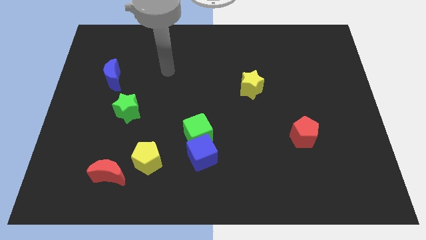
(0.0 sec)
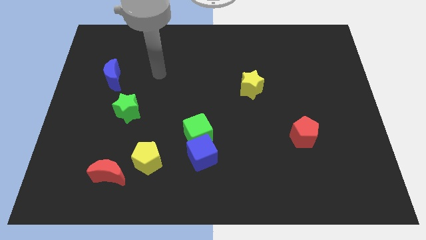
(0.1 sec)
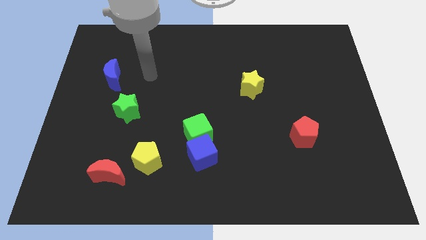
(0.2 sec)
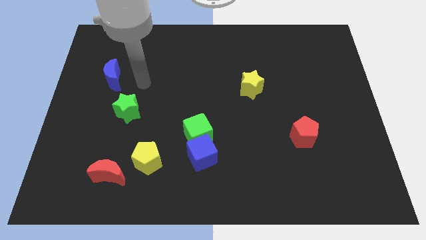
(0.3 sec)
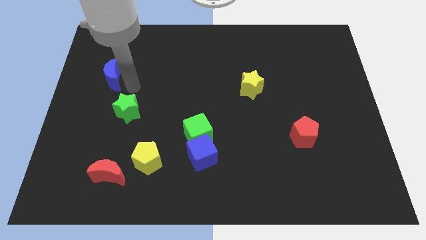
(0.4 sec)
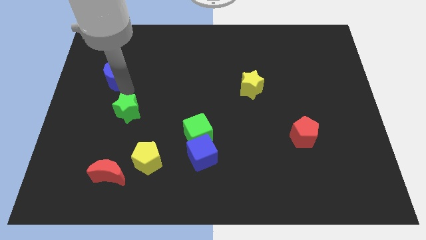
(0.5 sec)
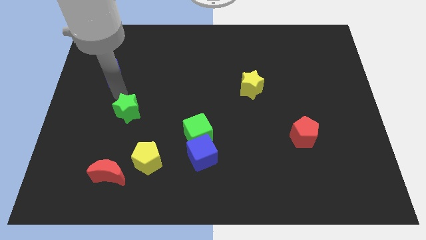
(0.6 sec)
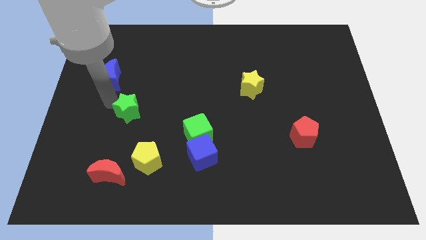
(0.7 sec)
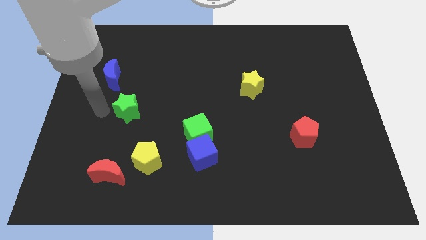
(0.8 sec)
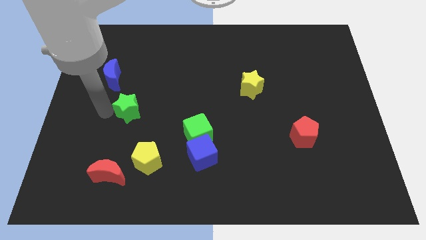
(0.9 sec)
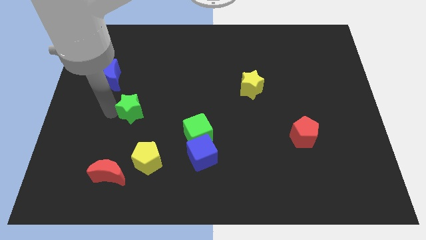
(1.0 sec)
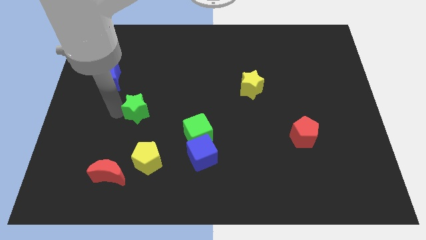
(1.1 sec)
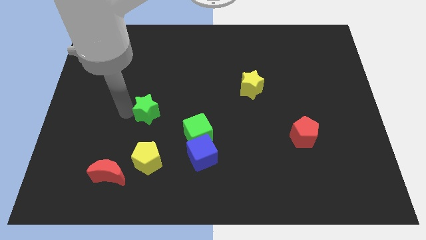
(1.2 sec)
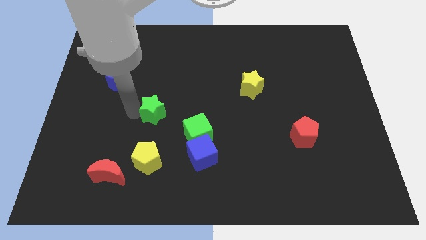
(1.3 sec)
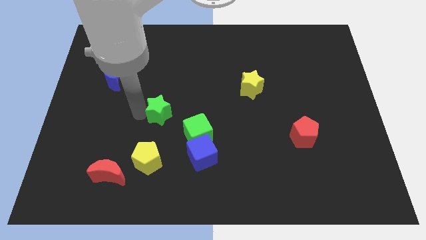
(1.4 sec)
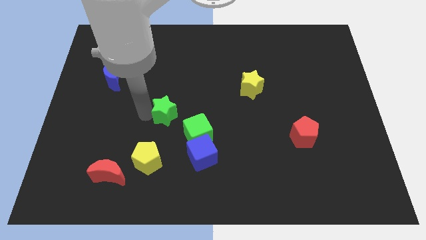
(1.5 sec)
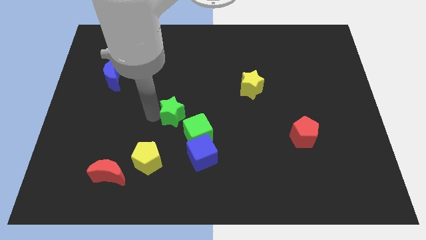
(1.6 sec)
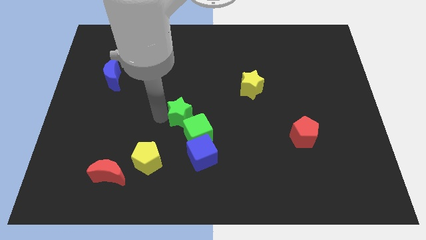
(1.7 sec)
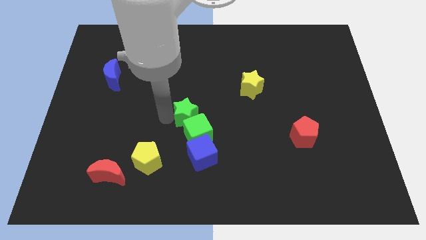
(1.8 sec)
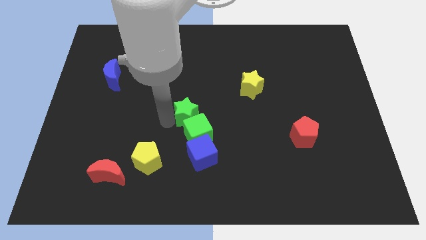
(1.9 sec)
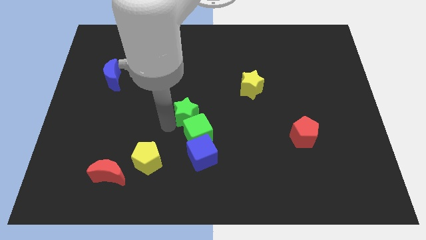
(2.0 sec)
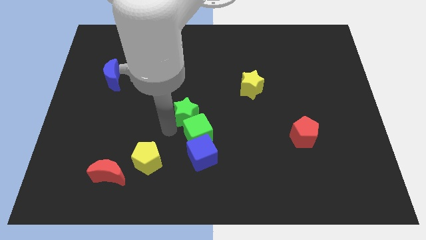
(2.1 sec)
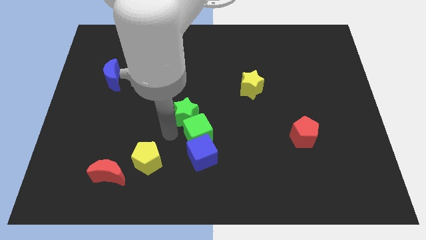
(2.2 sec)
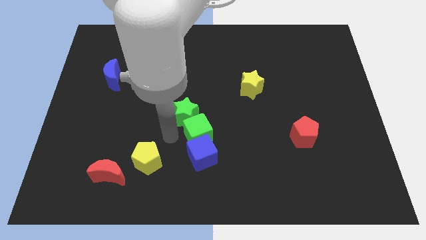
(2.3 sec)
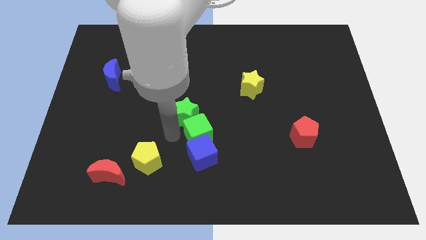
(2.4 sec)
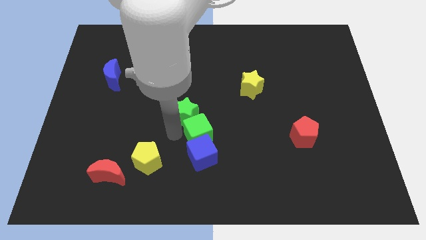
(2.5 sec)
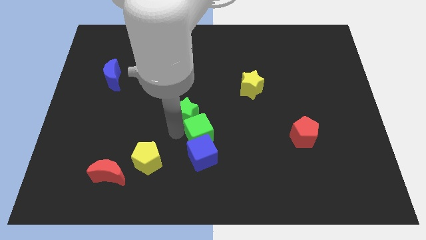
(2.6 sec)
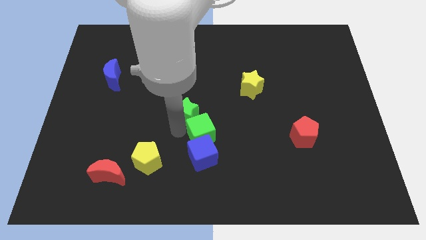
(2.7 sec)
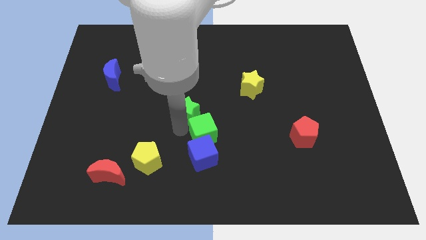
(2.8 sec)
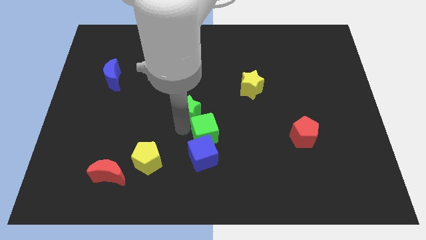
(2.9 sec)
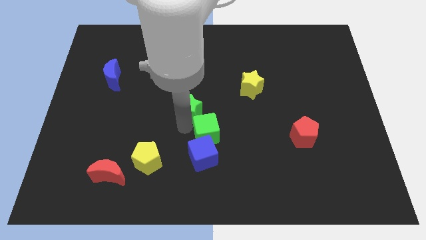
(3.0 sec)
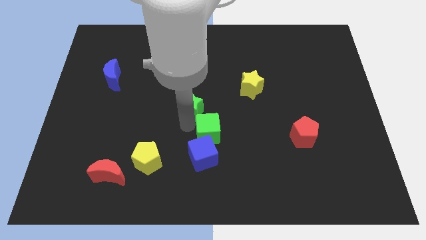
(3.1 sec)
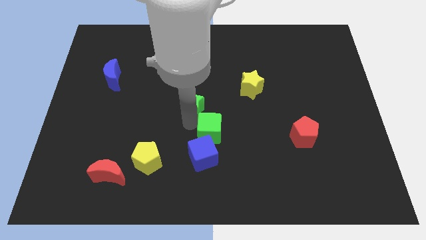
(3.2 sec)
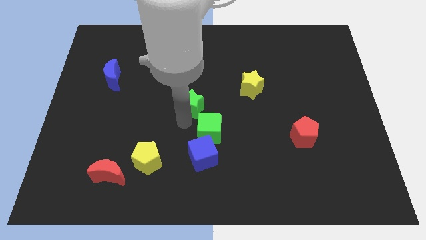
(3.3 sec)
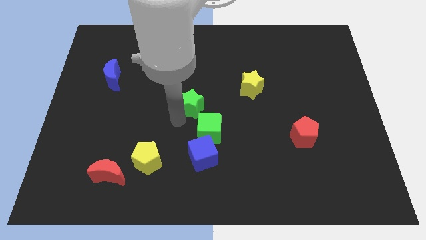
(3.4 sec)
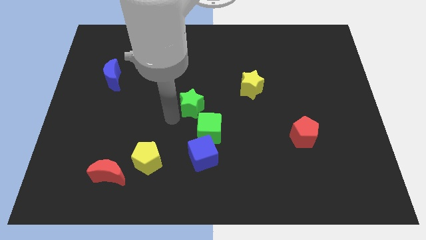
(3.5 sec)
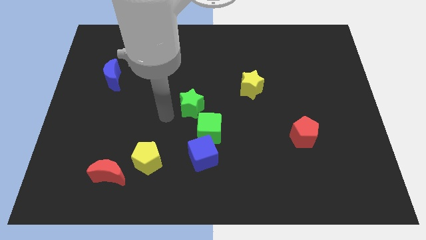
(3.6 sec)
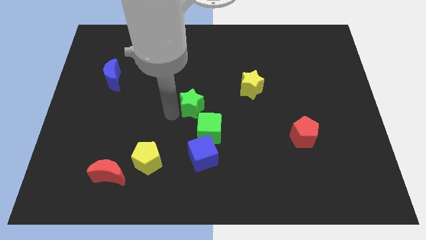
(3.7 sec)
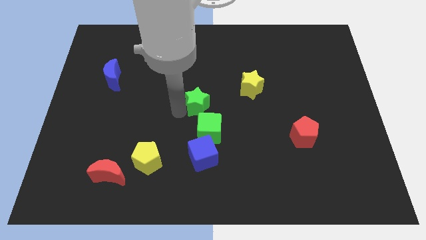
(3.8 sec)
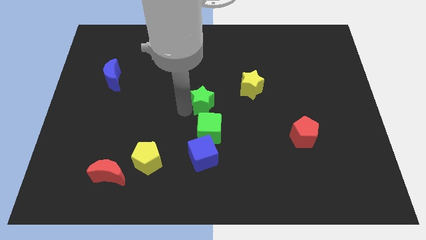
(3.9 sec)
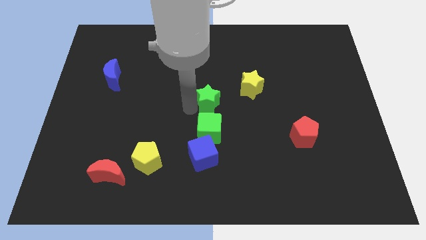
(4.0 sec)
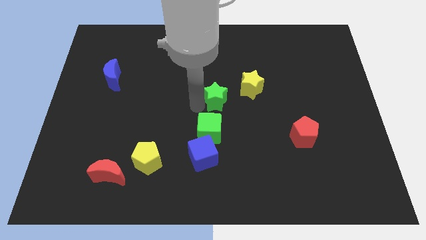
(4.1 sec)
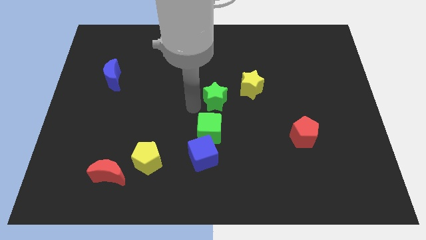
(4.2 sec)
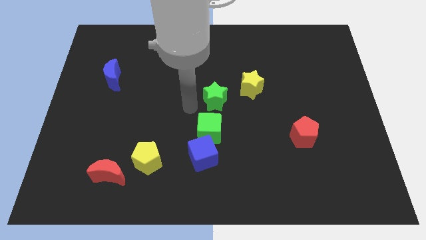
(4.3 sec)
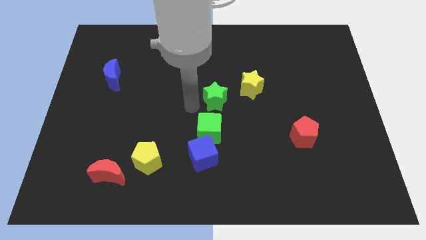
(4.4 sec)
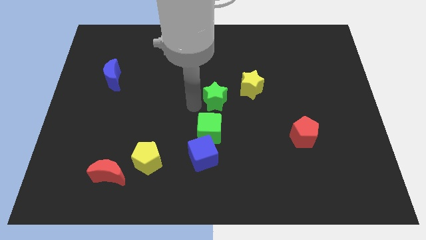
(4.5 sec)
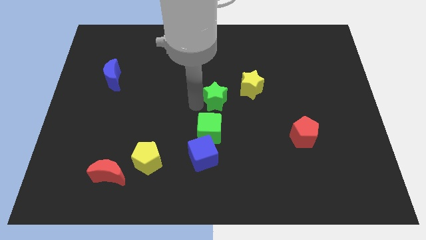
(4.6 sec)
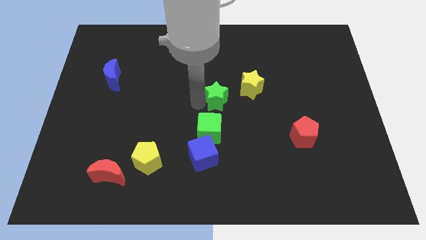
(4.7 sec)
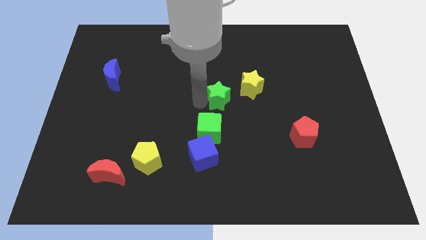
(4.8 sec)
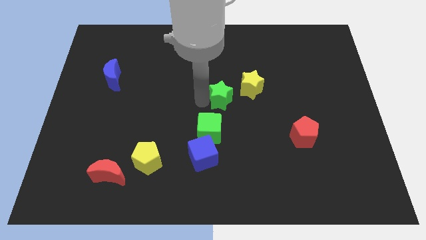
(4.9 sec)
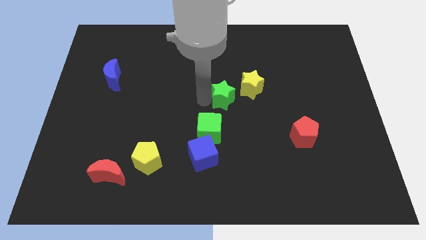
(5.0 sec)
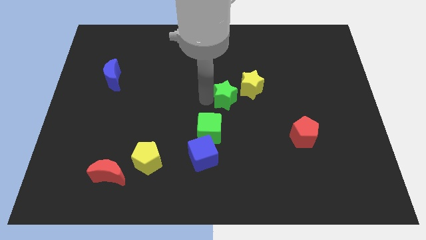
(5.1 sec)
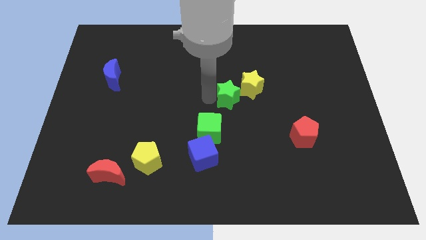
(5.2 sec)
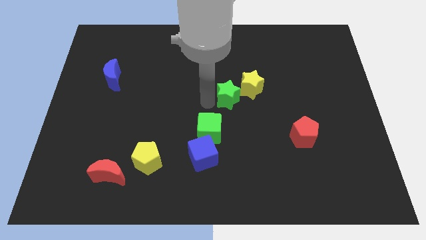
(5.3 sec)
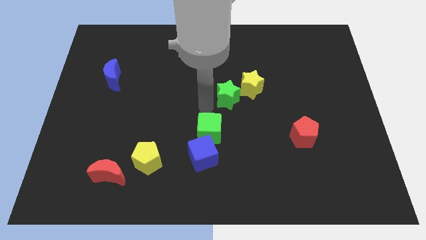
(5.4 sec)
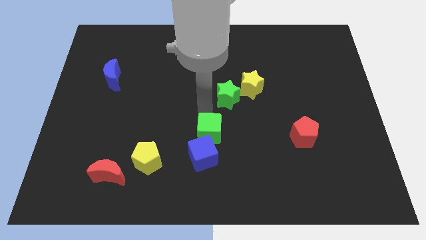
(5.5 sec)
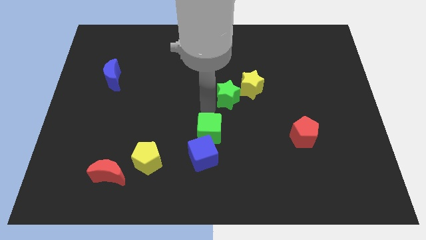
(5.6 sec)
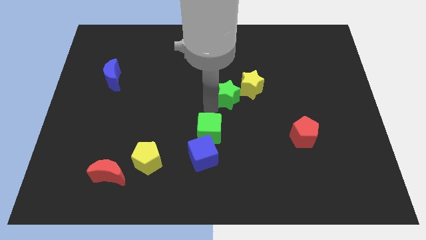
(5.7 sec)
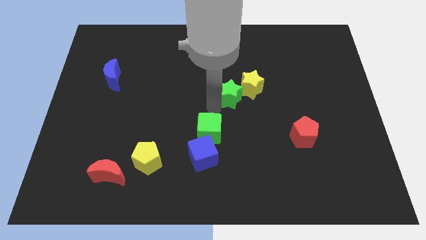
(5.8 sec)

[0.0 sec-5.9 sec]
put the green star towards the yellow star

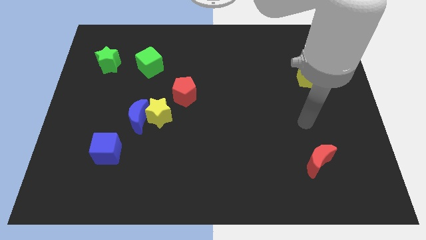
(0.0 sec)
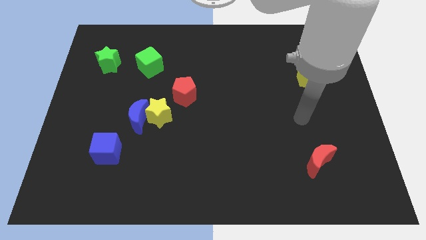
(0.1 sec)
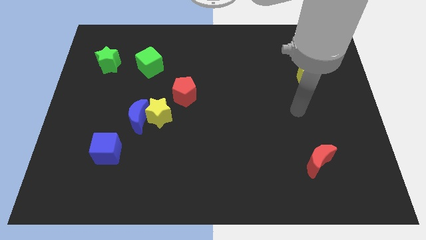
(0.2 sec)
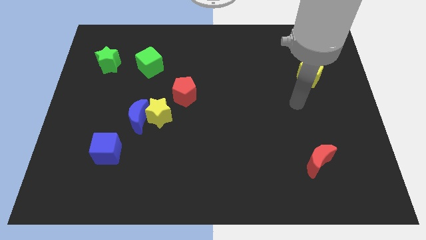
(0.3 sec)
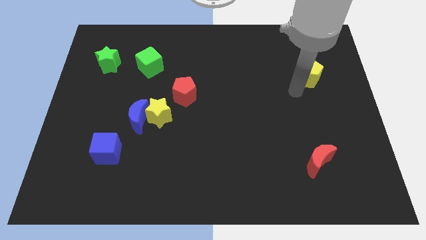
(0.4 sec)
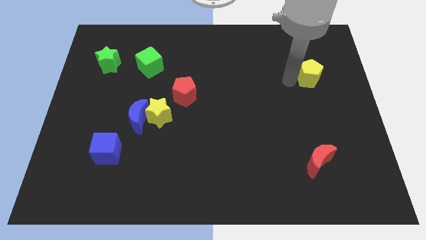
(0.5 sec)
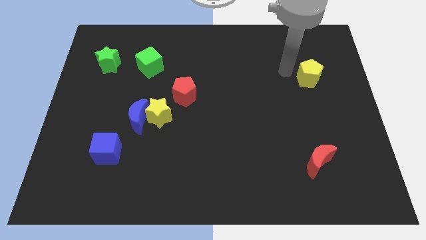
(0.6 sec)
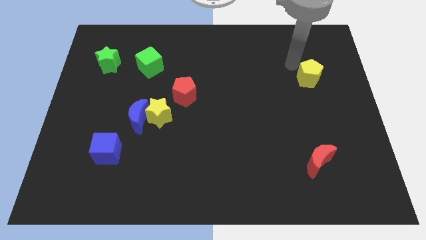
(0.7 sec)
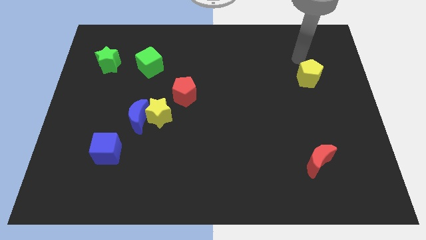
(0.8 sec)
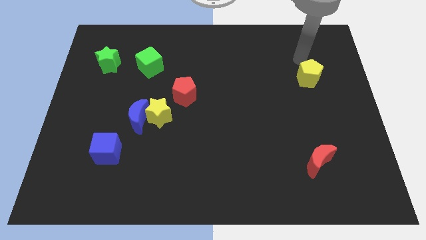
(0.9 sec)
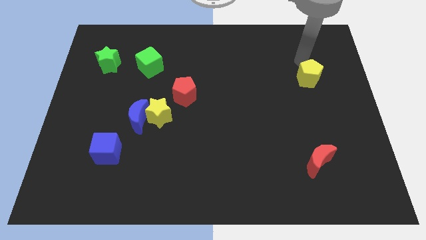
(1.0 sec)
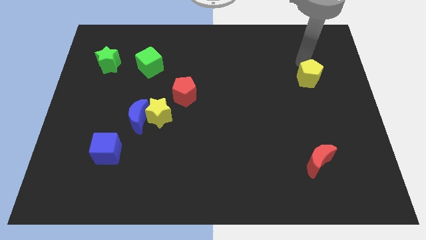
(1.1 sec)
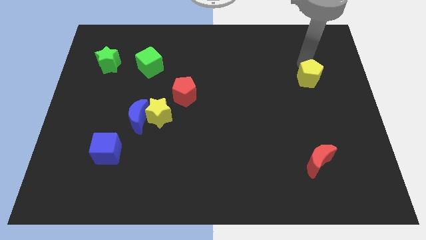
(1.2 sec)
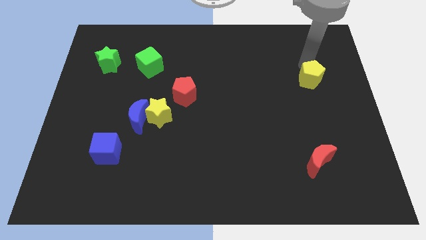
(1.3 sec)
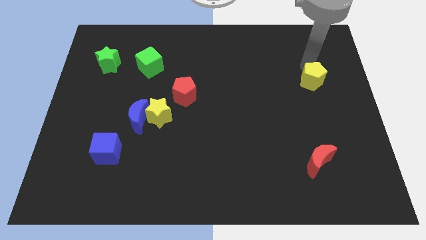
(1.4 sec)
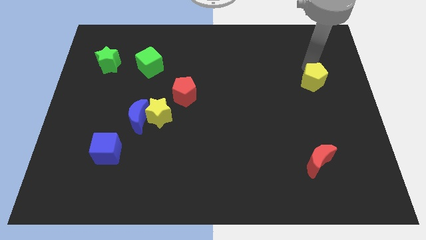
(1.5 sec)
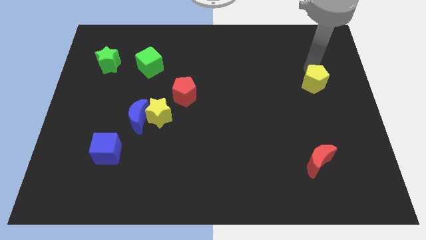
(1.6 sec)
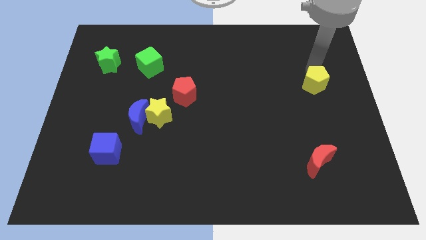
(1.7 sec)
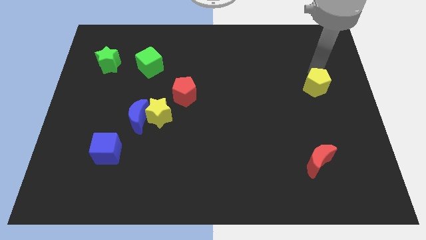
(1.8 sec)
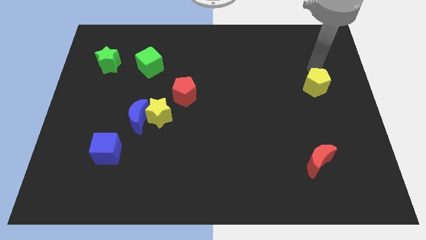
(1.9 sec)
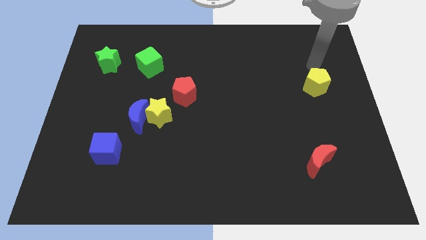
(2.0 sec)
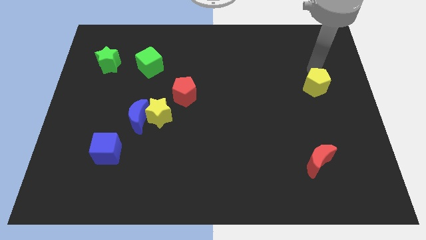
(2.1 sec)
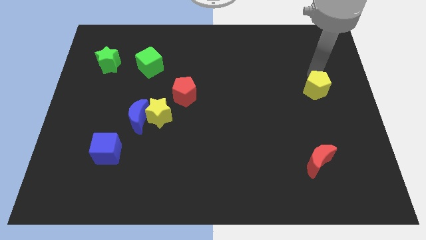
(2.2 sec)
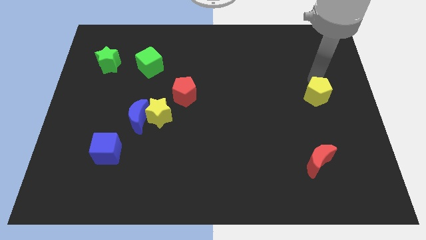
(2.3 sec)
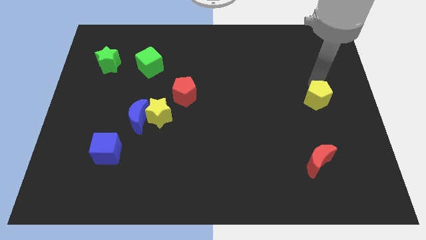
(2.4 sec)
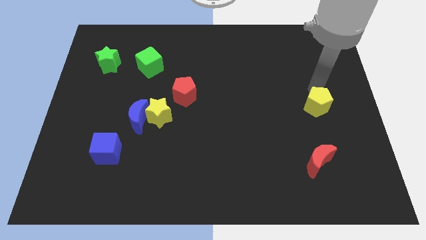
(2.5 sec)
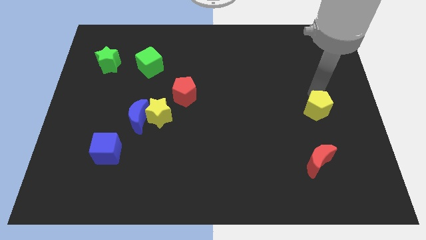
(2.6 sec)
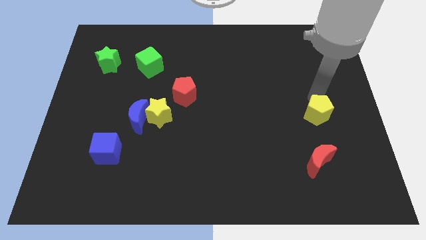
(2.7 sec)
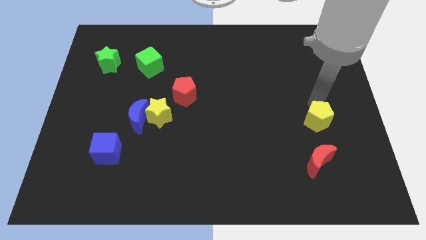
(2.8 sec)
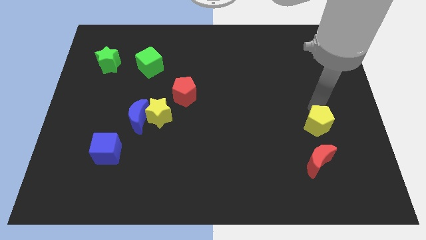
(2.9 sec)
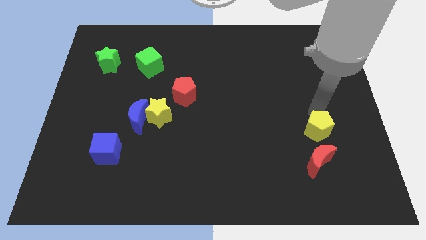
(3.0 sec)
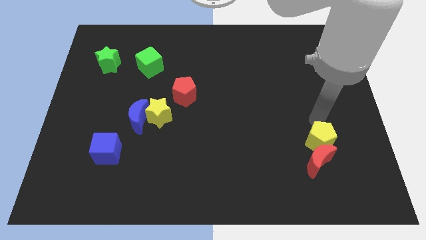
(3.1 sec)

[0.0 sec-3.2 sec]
move the yellow pentagon next to the red moon
